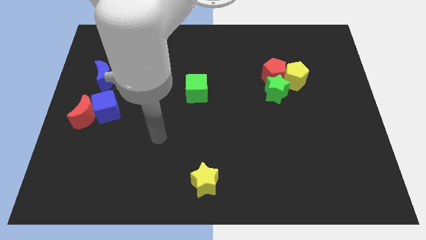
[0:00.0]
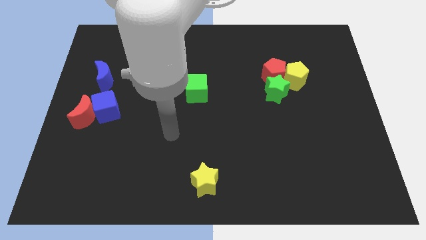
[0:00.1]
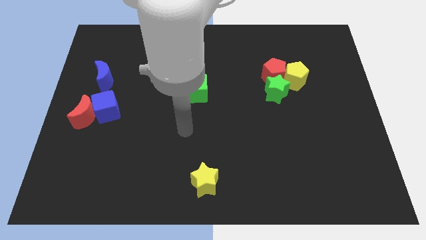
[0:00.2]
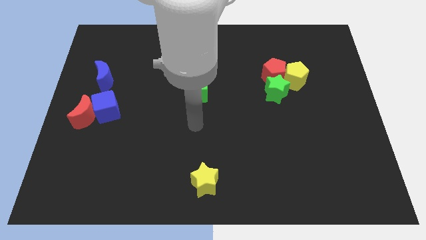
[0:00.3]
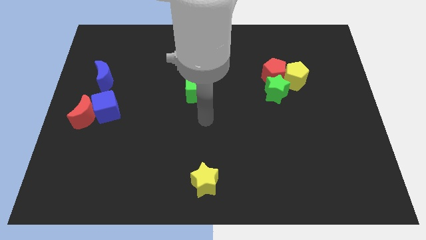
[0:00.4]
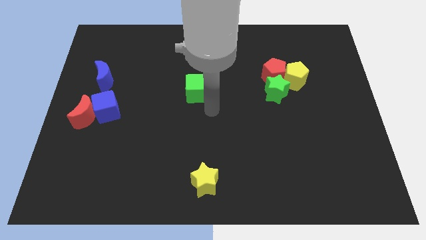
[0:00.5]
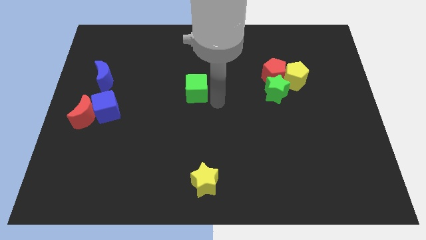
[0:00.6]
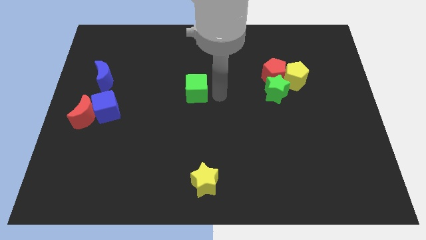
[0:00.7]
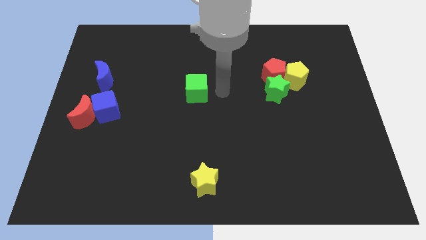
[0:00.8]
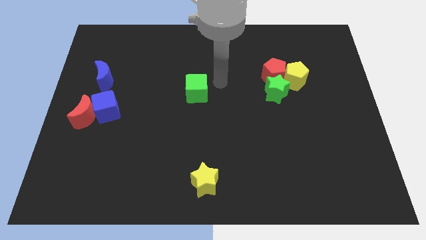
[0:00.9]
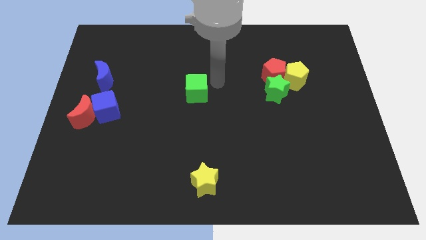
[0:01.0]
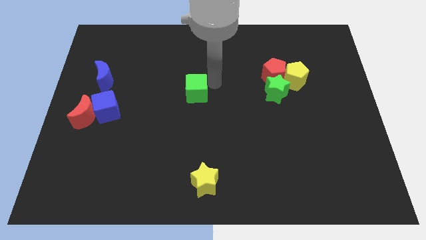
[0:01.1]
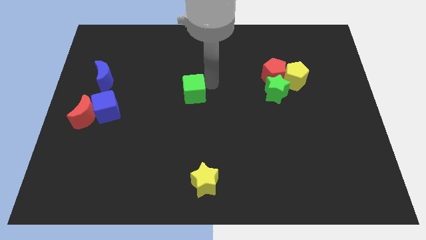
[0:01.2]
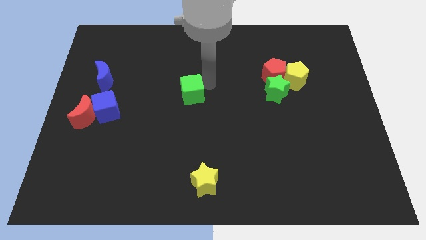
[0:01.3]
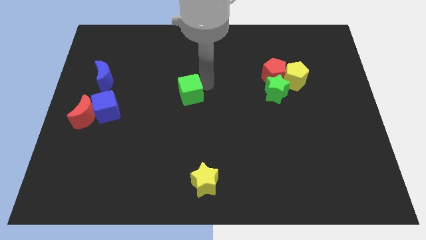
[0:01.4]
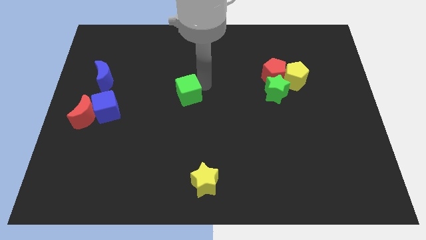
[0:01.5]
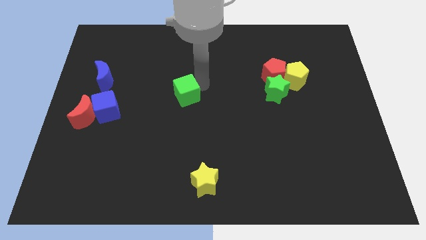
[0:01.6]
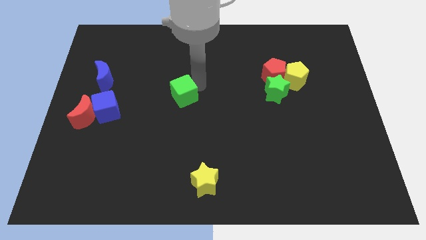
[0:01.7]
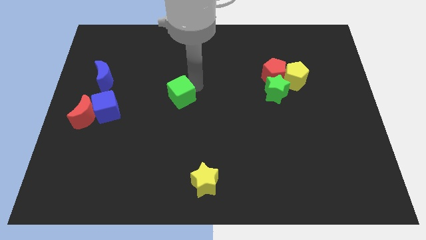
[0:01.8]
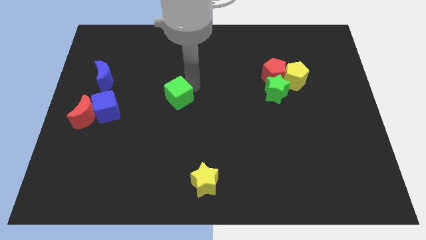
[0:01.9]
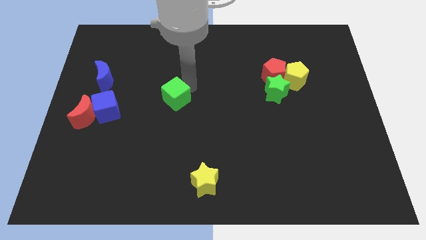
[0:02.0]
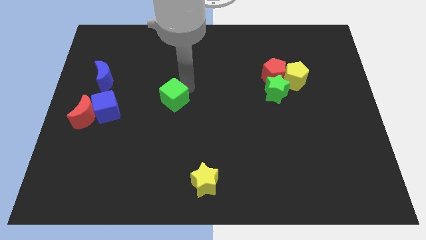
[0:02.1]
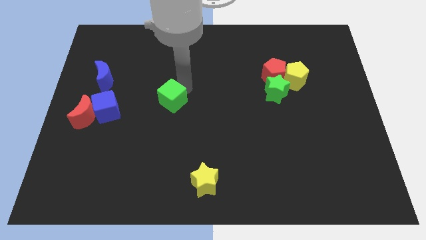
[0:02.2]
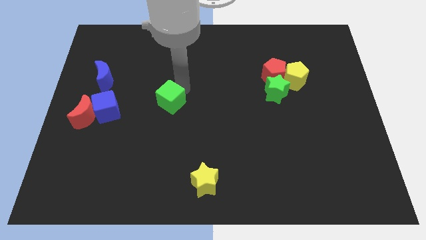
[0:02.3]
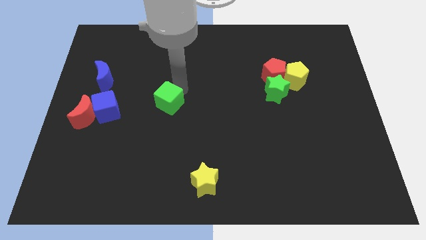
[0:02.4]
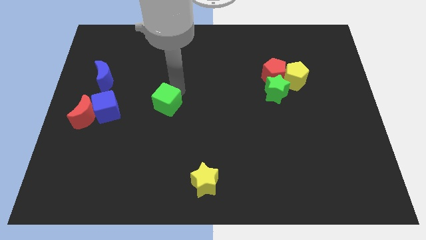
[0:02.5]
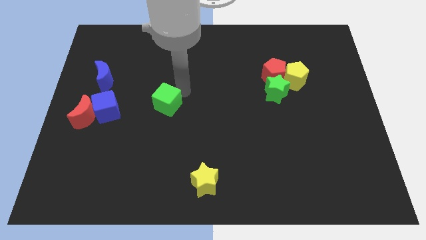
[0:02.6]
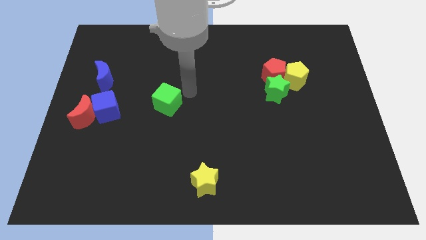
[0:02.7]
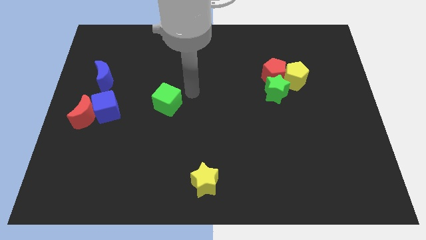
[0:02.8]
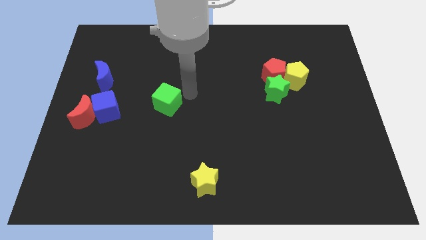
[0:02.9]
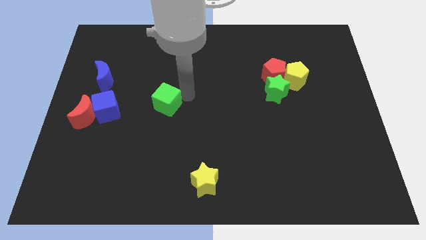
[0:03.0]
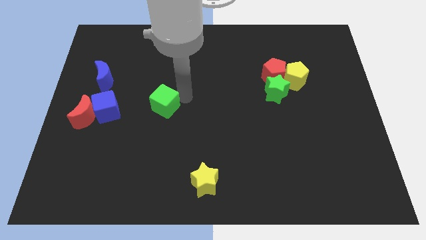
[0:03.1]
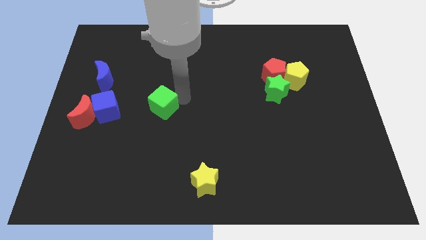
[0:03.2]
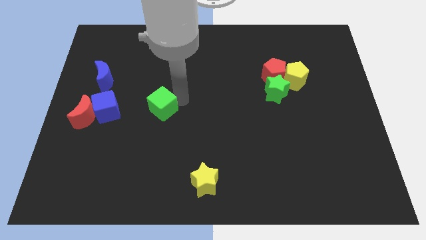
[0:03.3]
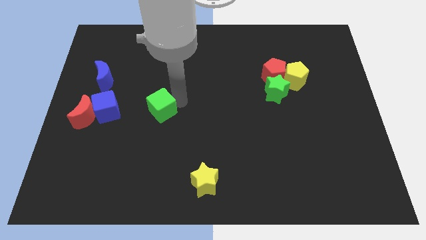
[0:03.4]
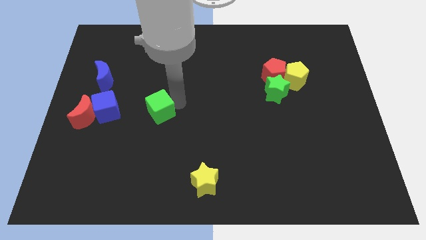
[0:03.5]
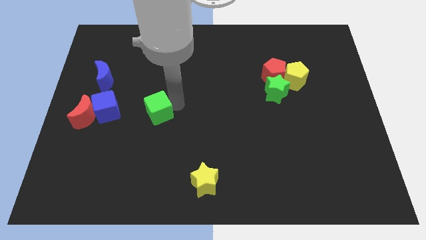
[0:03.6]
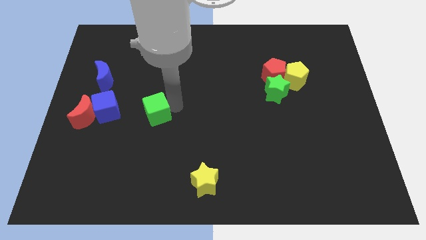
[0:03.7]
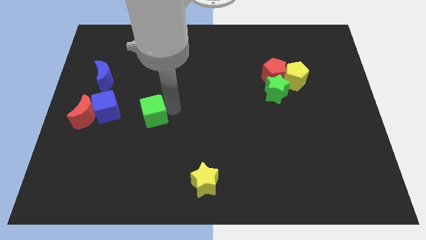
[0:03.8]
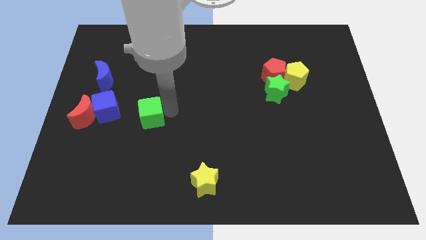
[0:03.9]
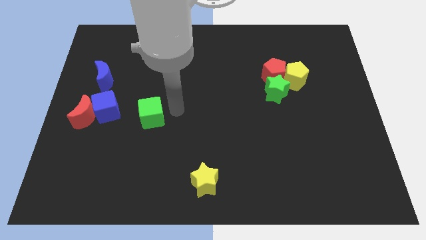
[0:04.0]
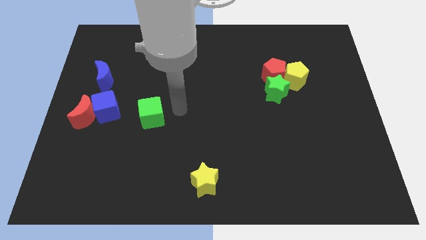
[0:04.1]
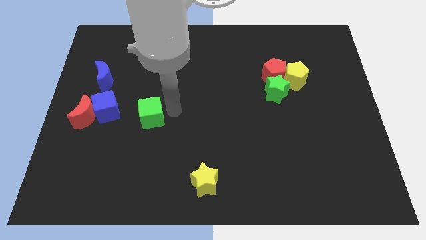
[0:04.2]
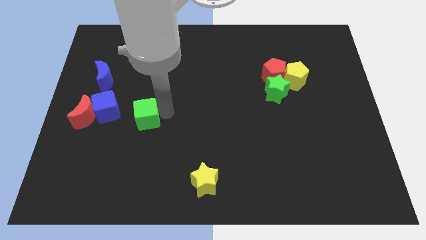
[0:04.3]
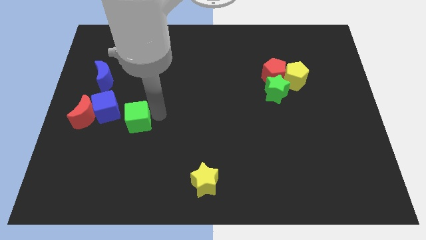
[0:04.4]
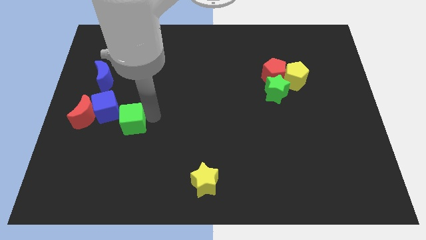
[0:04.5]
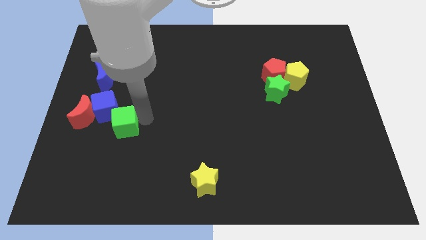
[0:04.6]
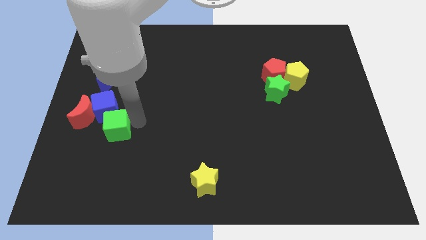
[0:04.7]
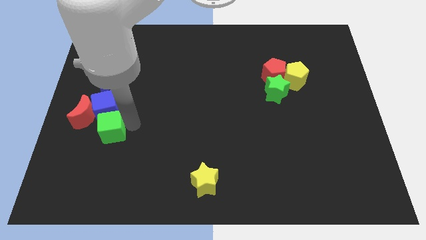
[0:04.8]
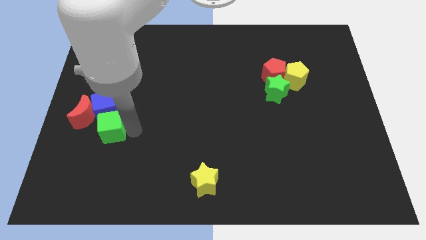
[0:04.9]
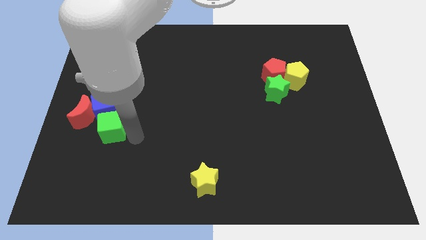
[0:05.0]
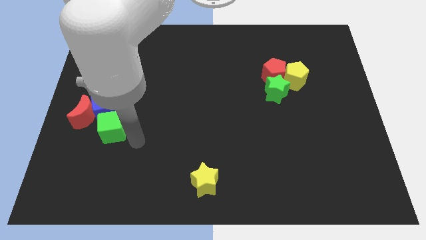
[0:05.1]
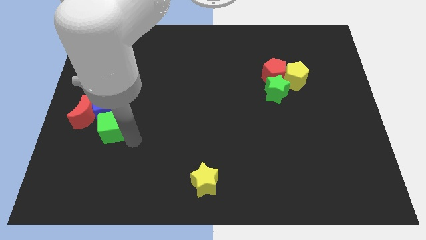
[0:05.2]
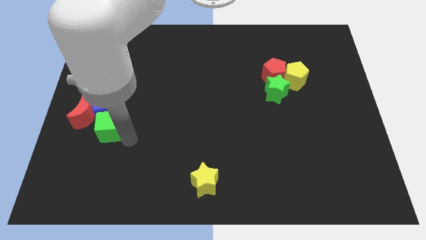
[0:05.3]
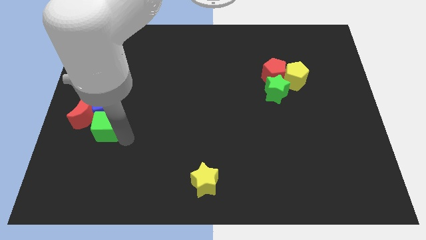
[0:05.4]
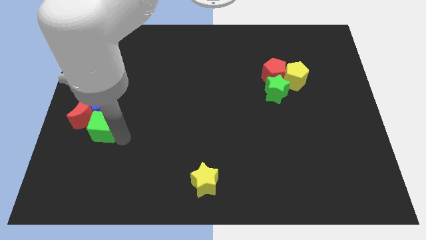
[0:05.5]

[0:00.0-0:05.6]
put the green cube to the red moon

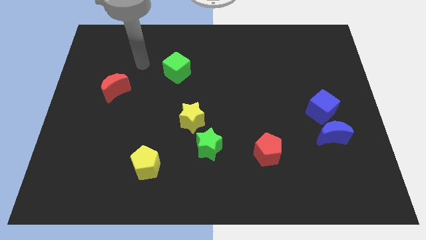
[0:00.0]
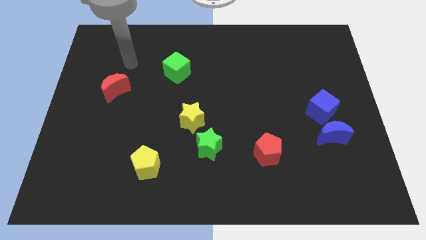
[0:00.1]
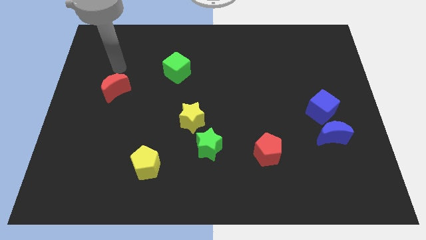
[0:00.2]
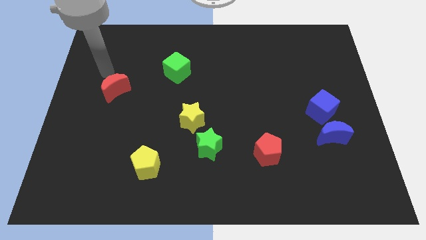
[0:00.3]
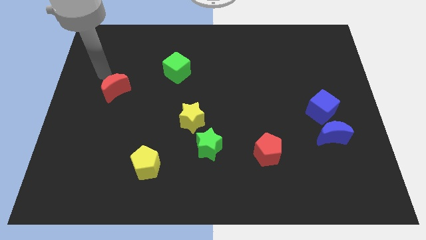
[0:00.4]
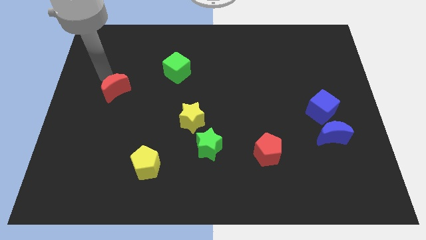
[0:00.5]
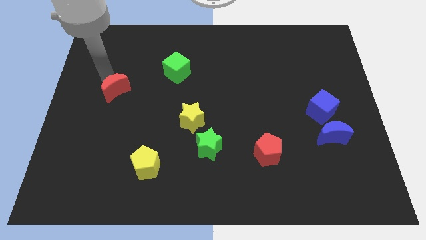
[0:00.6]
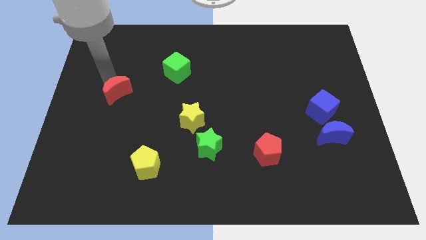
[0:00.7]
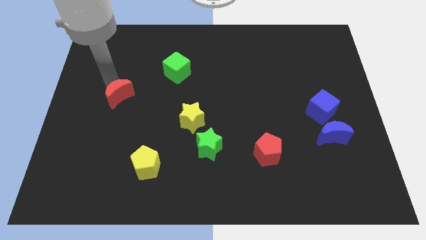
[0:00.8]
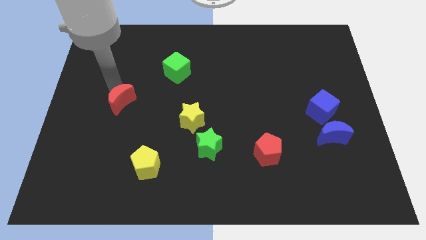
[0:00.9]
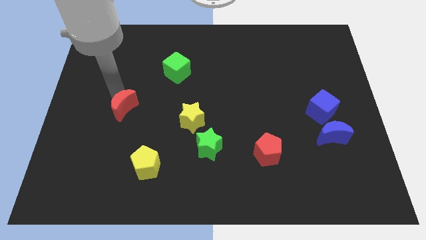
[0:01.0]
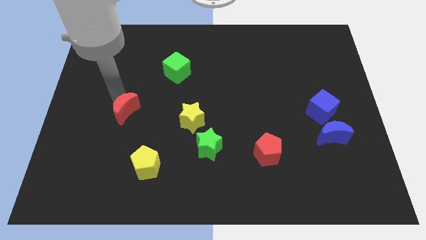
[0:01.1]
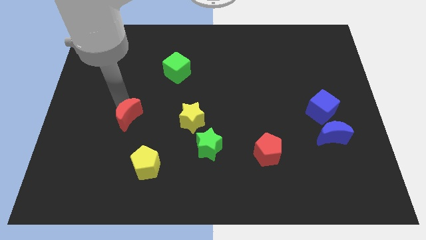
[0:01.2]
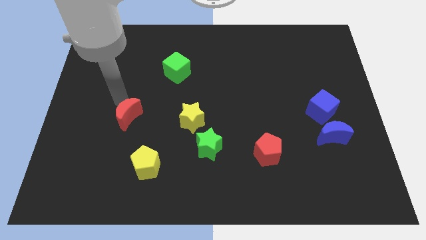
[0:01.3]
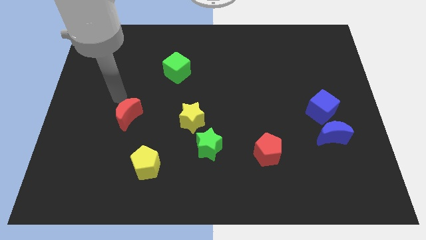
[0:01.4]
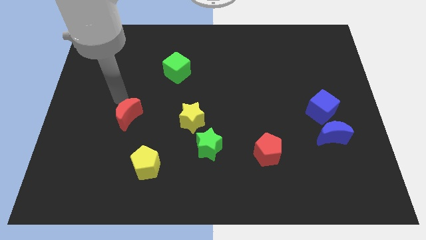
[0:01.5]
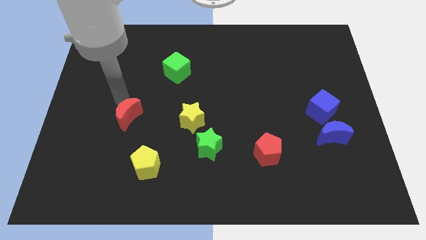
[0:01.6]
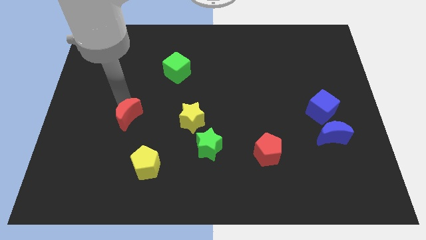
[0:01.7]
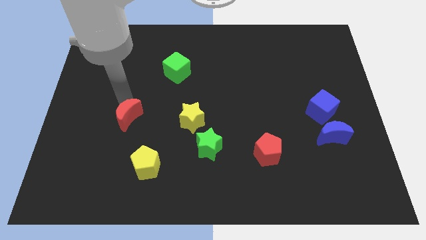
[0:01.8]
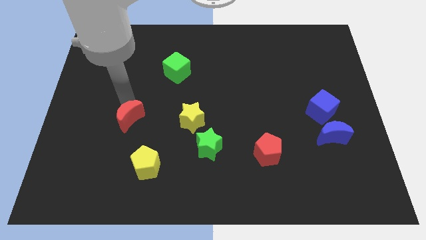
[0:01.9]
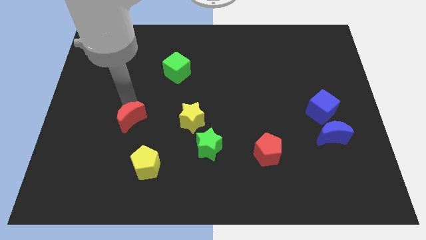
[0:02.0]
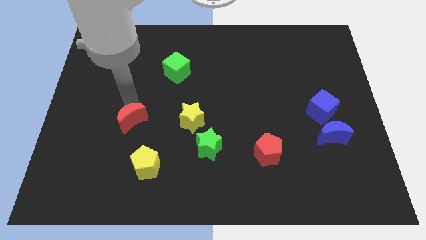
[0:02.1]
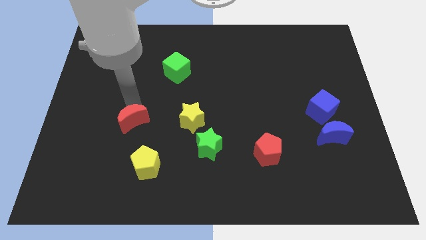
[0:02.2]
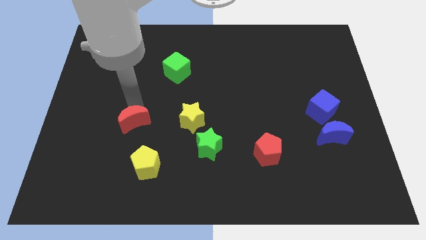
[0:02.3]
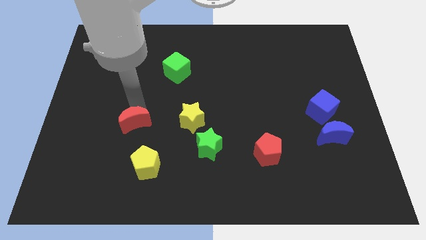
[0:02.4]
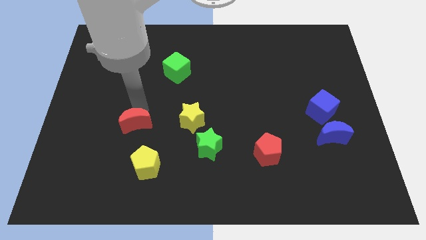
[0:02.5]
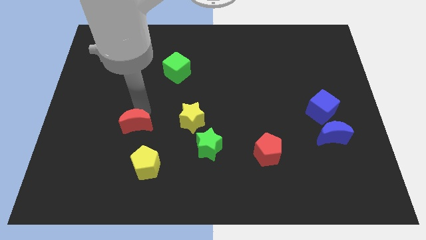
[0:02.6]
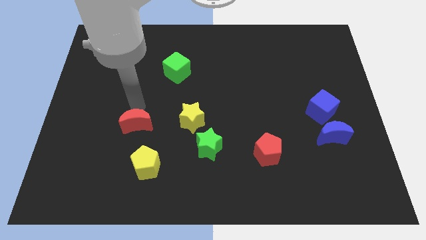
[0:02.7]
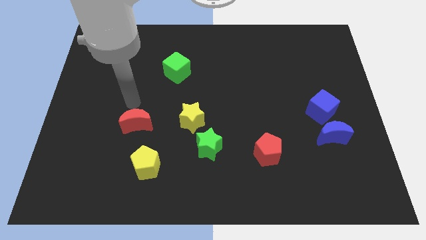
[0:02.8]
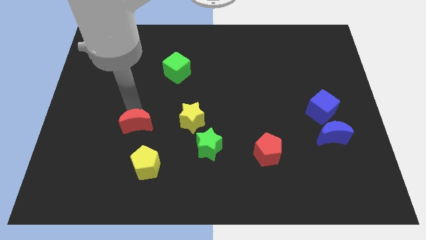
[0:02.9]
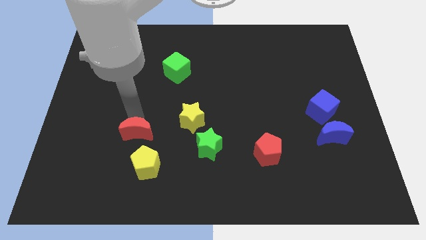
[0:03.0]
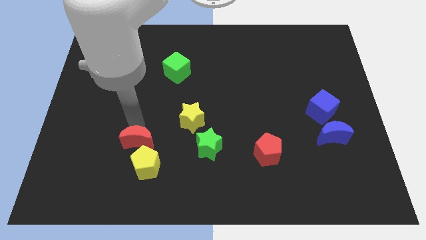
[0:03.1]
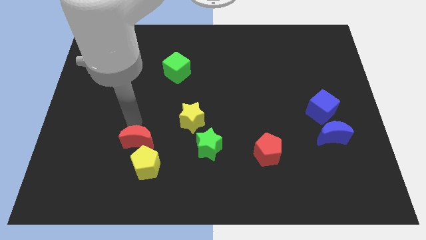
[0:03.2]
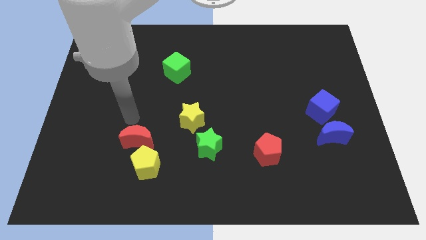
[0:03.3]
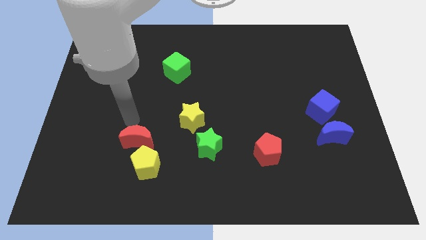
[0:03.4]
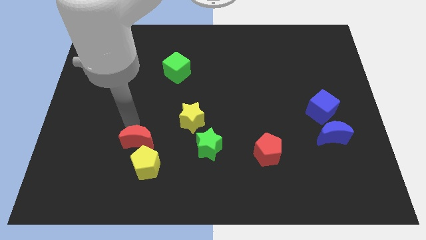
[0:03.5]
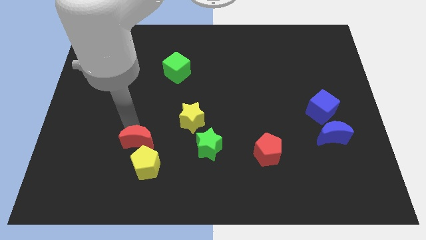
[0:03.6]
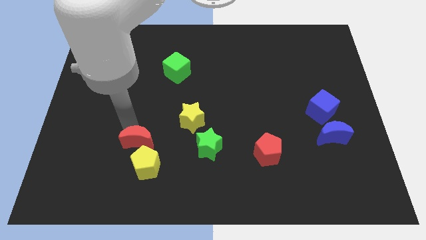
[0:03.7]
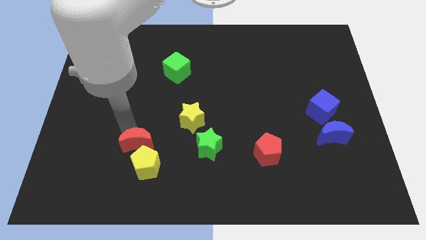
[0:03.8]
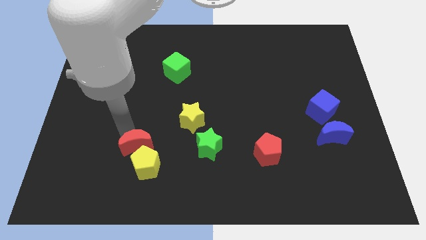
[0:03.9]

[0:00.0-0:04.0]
slide the red moon to the yellow pentagon
